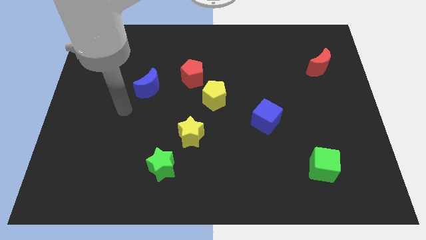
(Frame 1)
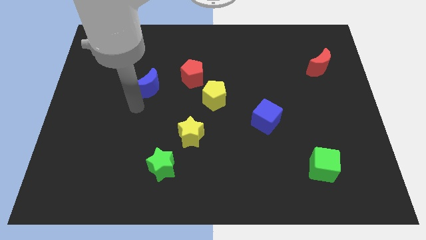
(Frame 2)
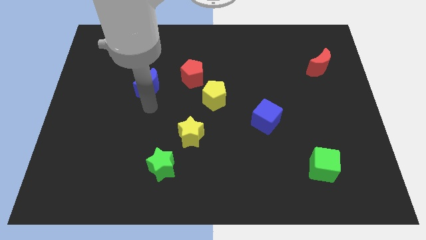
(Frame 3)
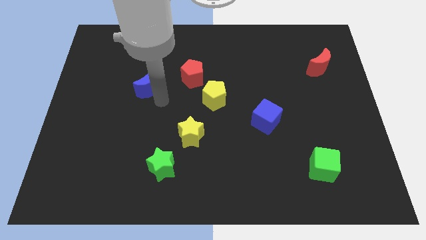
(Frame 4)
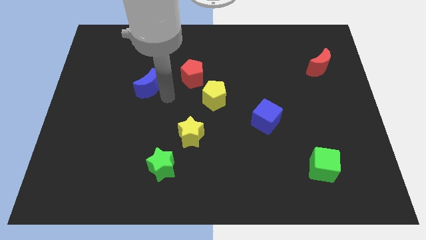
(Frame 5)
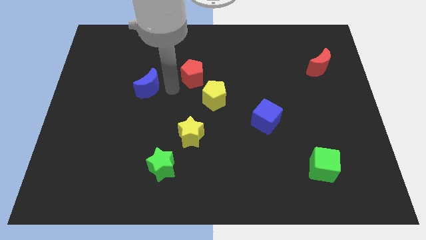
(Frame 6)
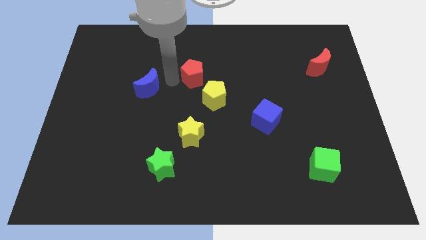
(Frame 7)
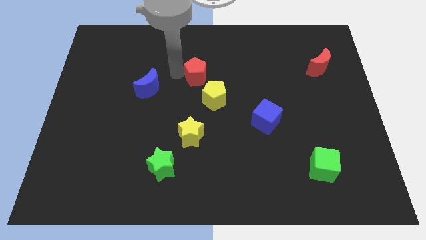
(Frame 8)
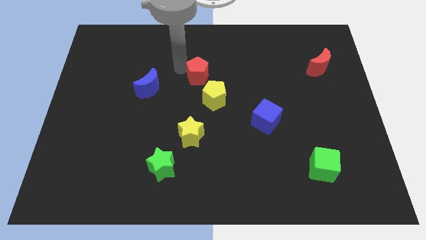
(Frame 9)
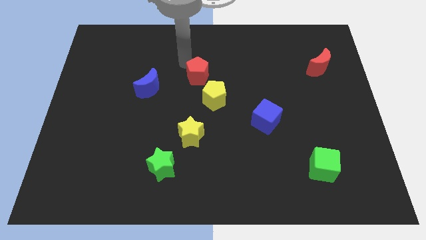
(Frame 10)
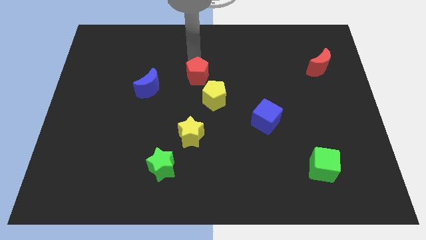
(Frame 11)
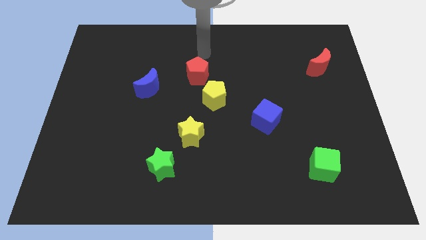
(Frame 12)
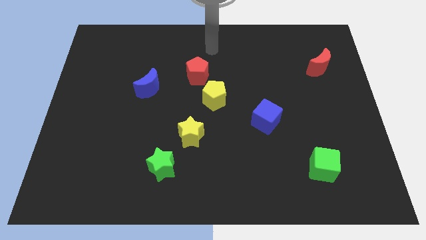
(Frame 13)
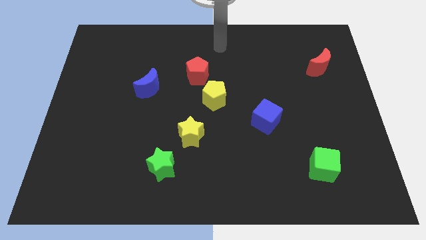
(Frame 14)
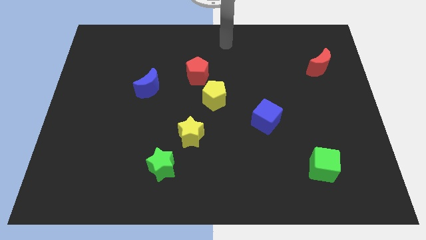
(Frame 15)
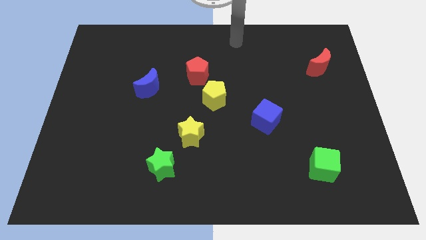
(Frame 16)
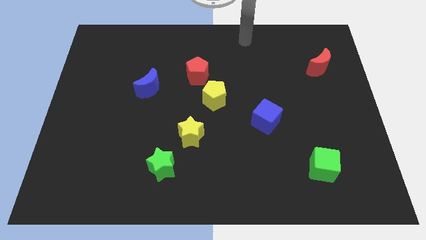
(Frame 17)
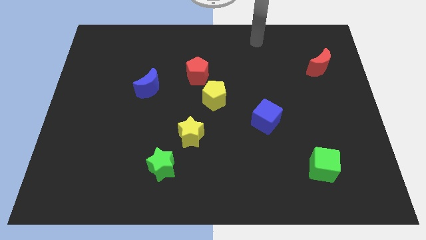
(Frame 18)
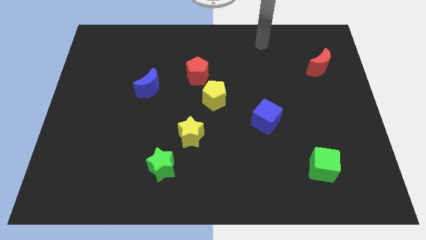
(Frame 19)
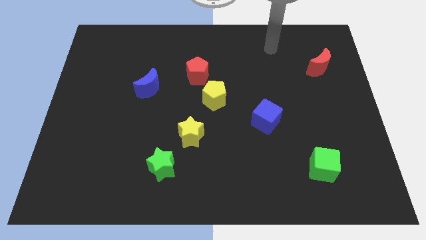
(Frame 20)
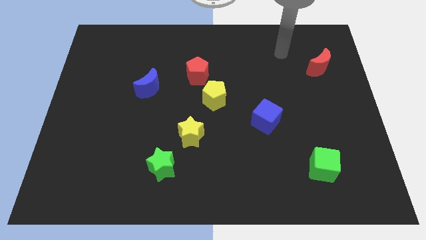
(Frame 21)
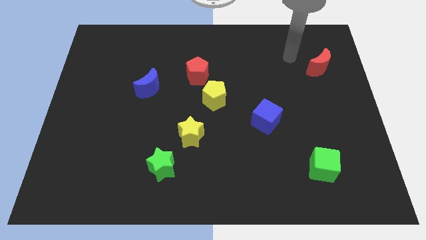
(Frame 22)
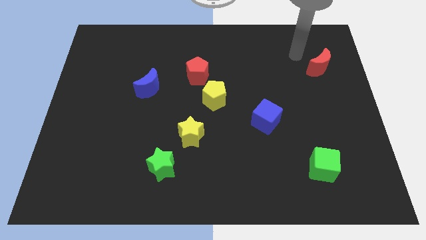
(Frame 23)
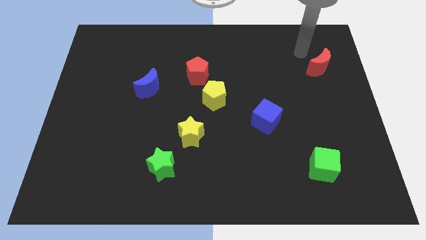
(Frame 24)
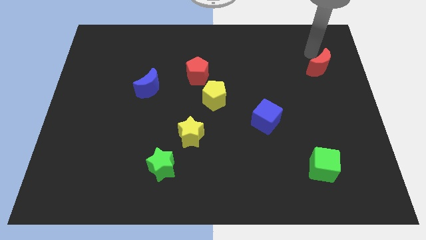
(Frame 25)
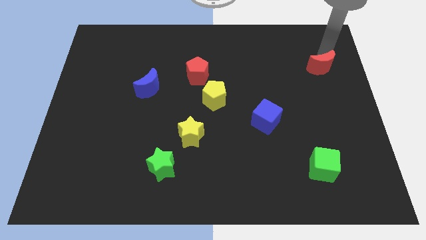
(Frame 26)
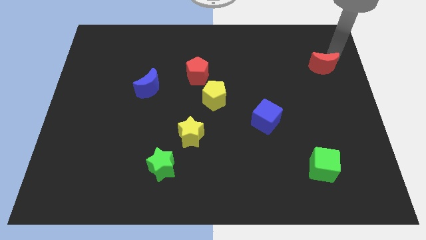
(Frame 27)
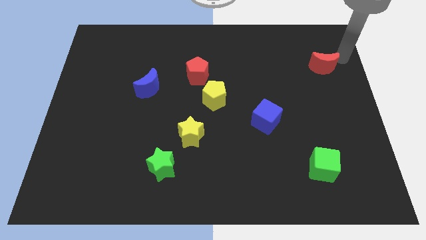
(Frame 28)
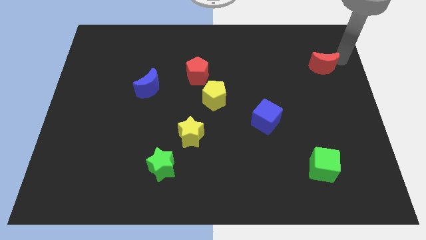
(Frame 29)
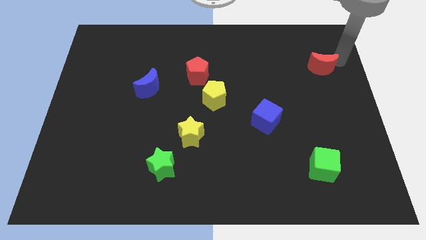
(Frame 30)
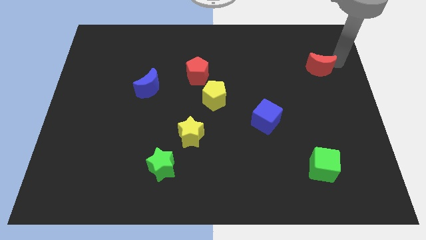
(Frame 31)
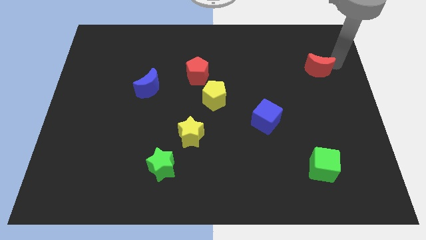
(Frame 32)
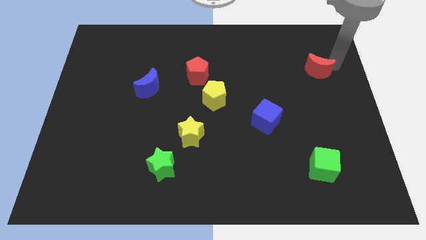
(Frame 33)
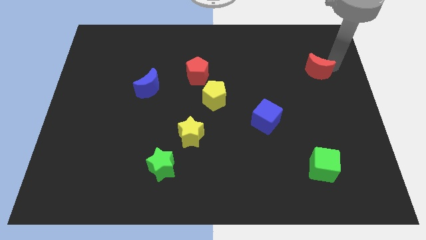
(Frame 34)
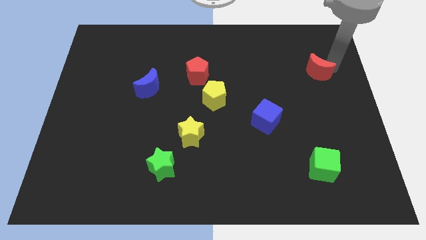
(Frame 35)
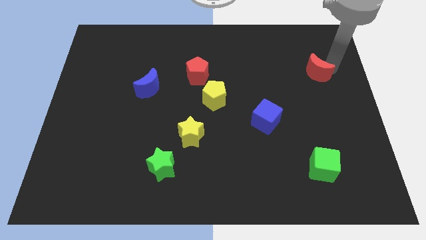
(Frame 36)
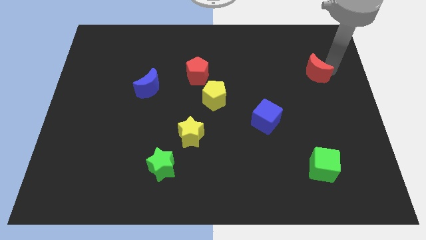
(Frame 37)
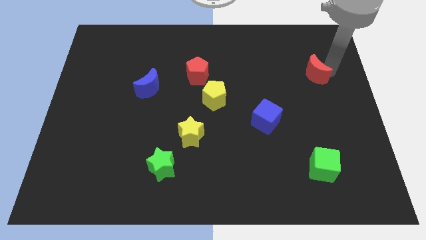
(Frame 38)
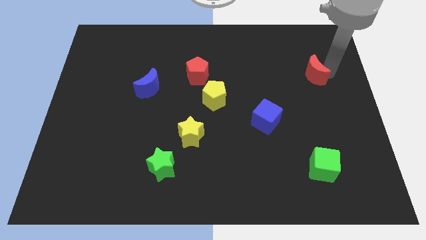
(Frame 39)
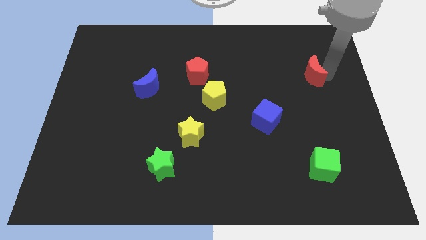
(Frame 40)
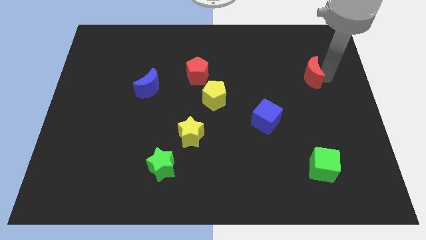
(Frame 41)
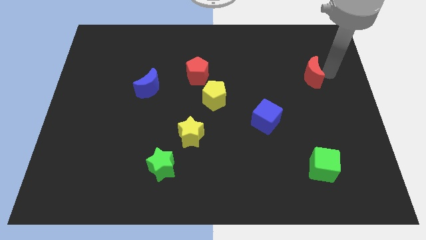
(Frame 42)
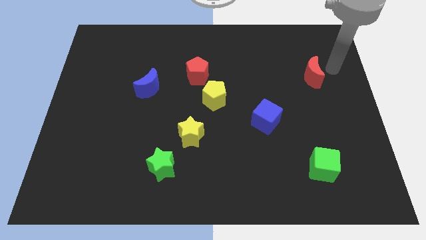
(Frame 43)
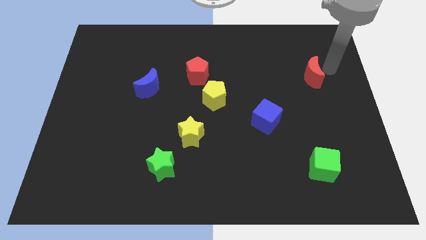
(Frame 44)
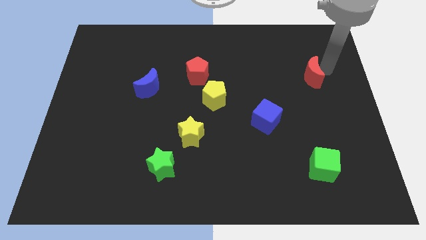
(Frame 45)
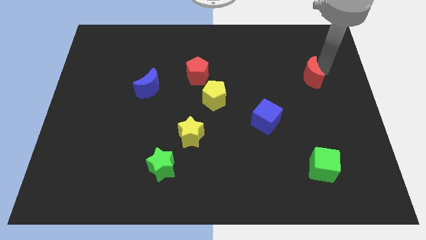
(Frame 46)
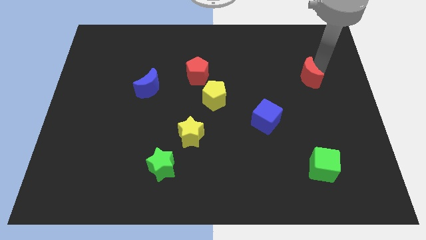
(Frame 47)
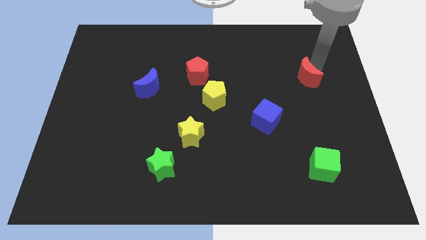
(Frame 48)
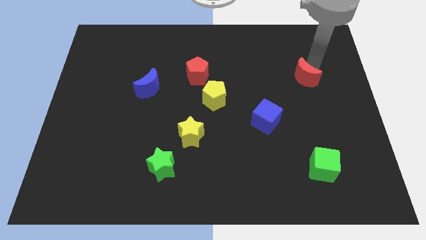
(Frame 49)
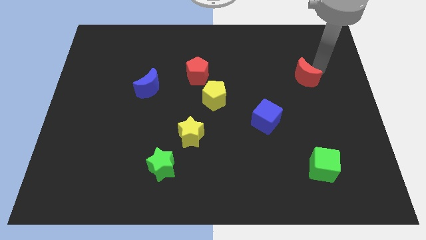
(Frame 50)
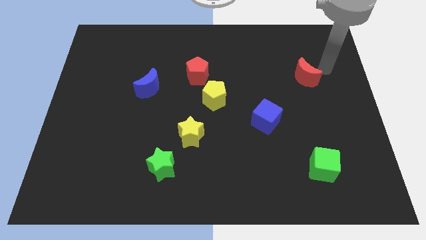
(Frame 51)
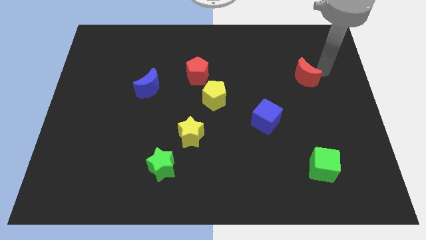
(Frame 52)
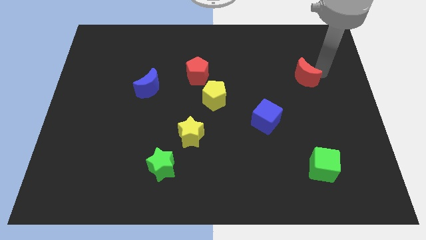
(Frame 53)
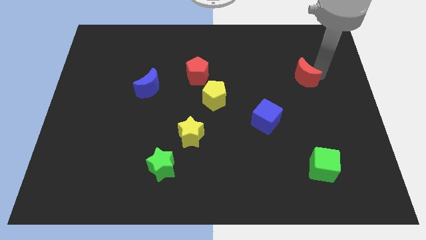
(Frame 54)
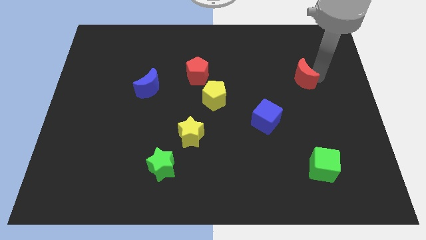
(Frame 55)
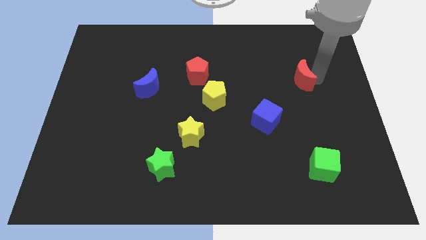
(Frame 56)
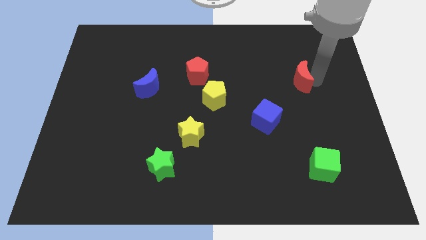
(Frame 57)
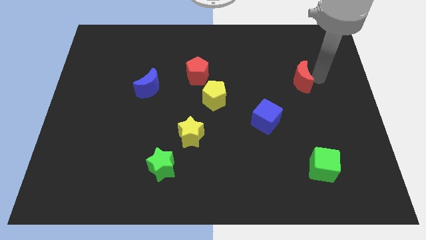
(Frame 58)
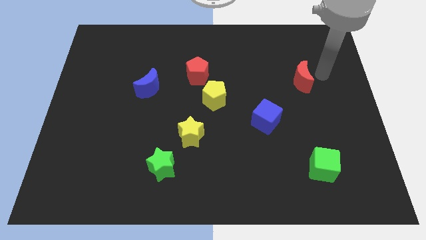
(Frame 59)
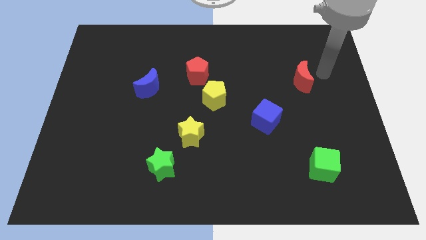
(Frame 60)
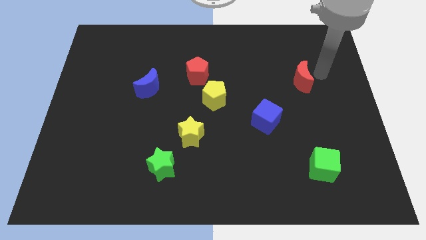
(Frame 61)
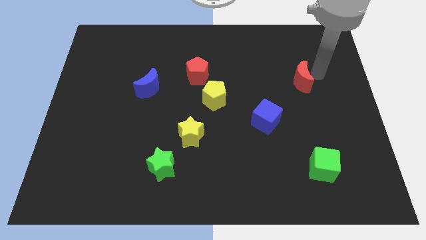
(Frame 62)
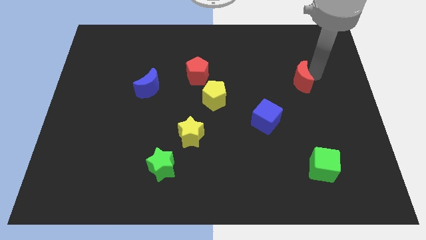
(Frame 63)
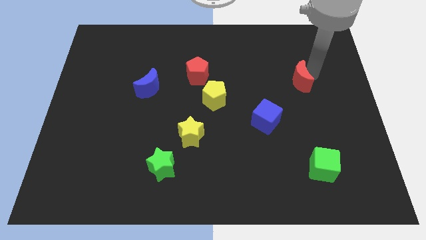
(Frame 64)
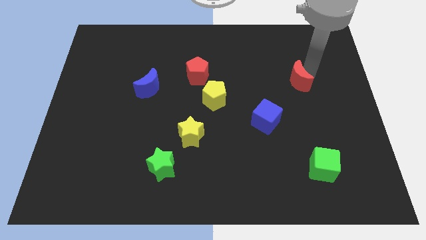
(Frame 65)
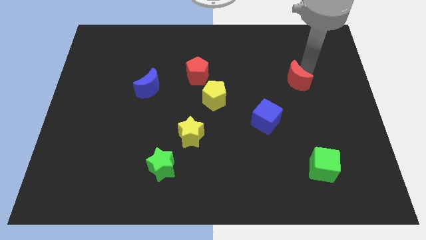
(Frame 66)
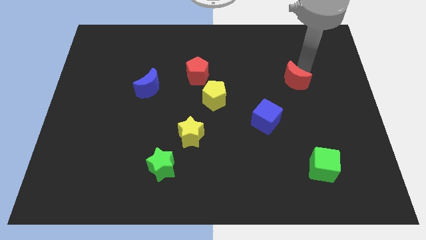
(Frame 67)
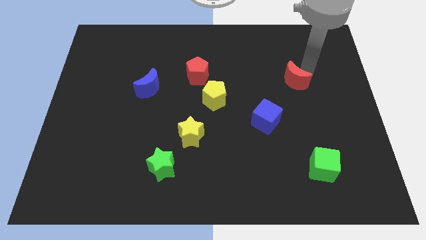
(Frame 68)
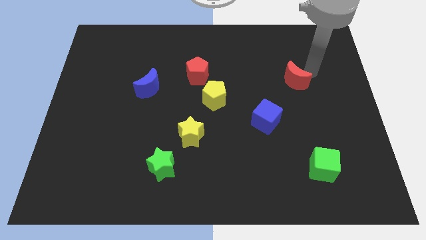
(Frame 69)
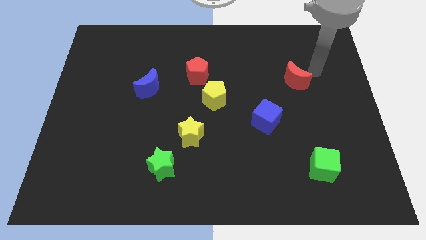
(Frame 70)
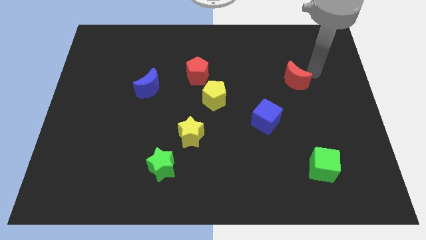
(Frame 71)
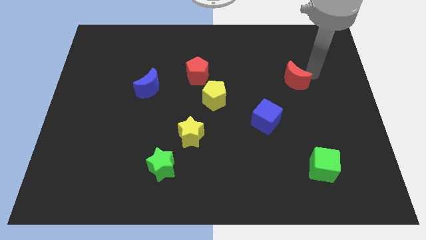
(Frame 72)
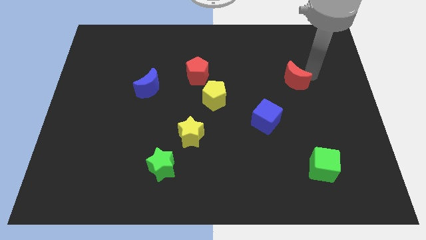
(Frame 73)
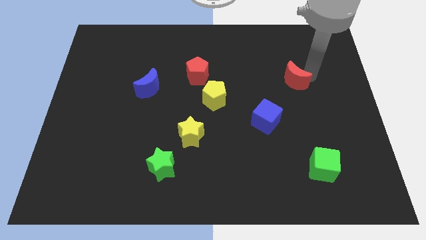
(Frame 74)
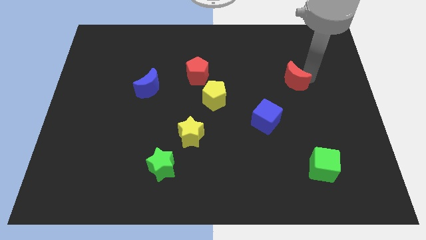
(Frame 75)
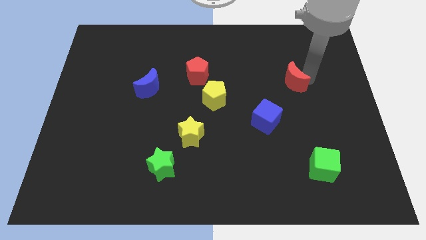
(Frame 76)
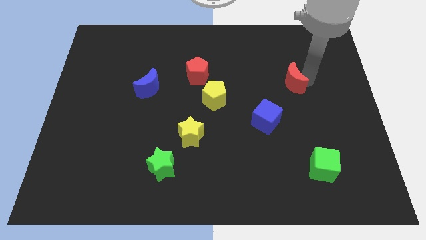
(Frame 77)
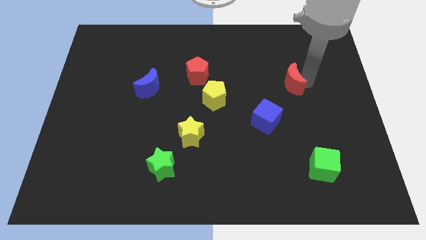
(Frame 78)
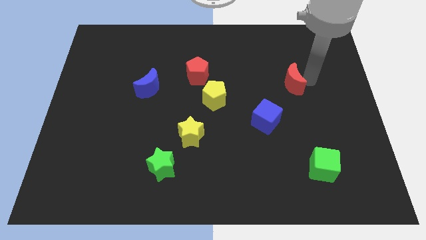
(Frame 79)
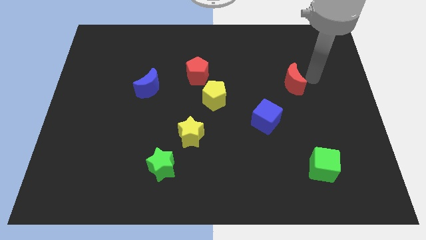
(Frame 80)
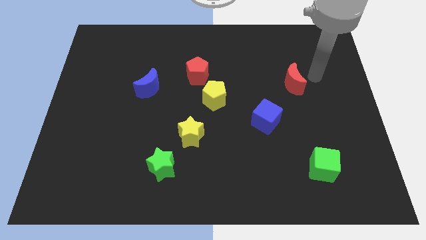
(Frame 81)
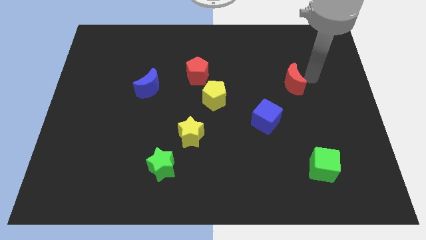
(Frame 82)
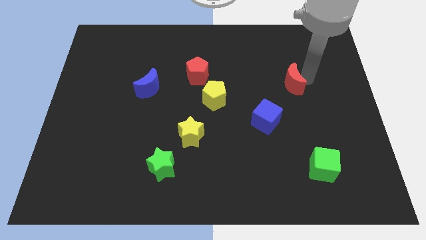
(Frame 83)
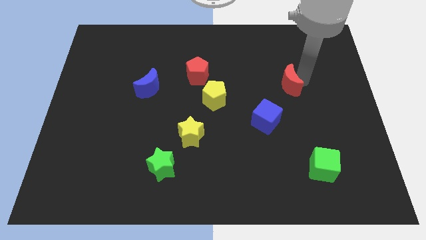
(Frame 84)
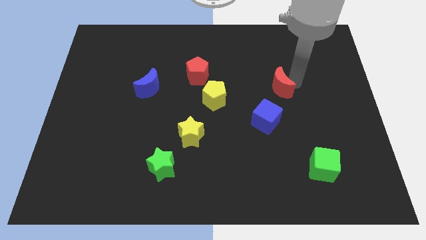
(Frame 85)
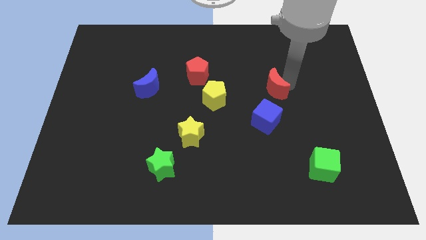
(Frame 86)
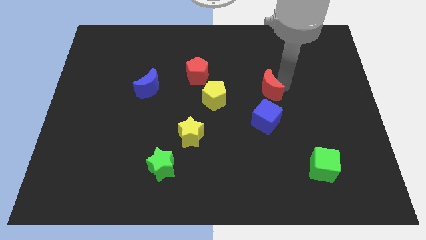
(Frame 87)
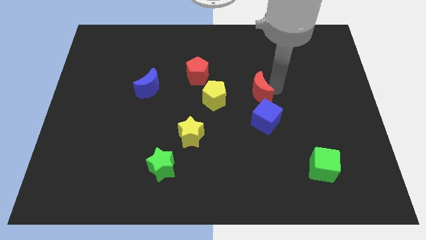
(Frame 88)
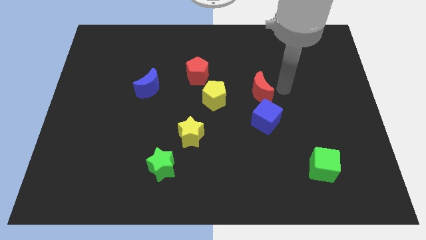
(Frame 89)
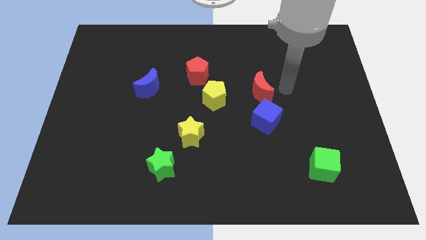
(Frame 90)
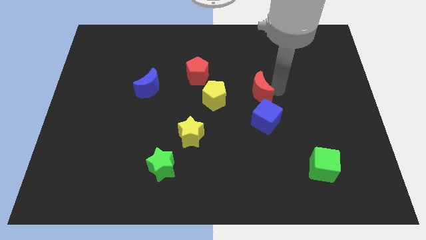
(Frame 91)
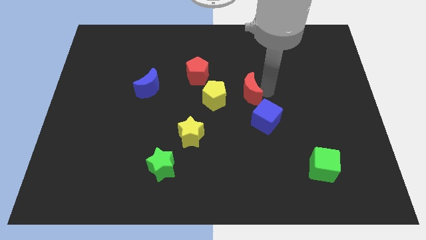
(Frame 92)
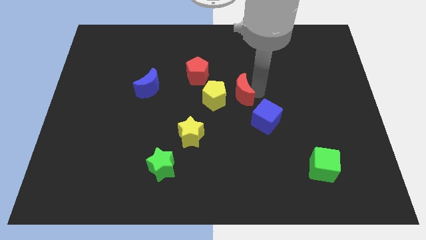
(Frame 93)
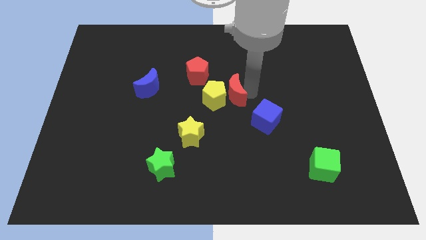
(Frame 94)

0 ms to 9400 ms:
put the red moon towards the yellow pentagon
